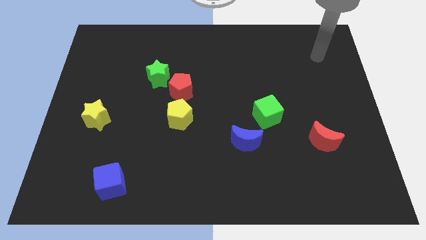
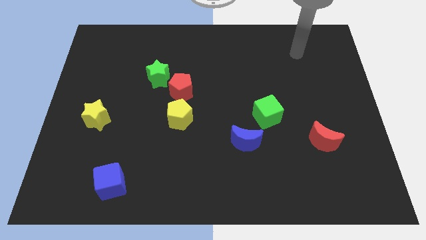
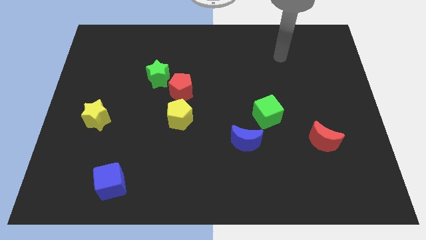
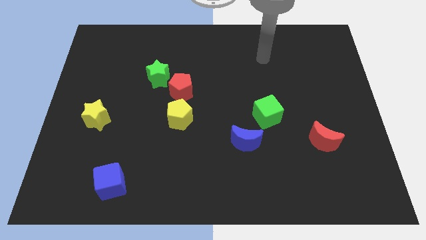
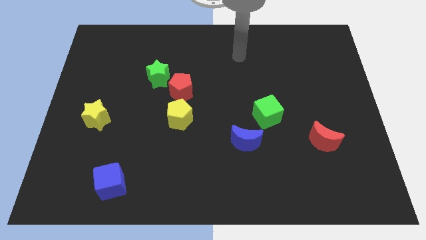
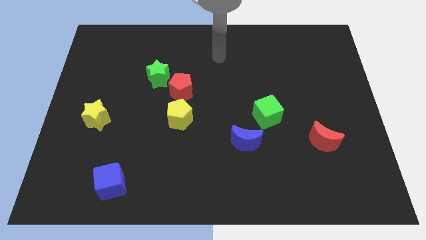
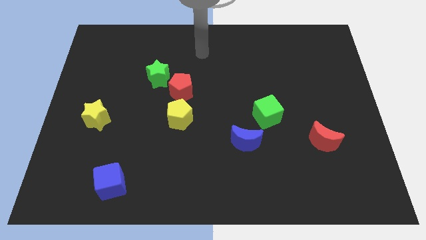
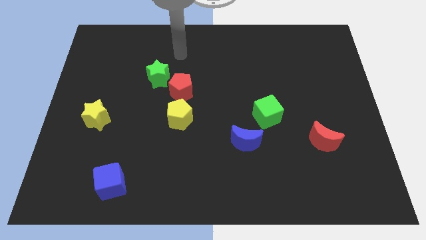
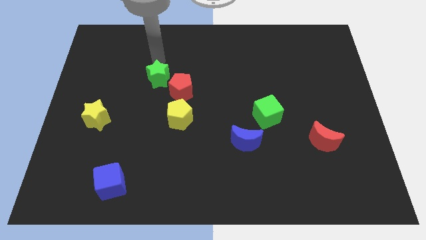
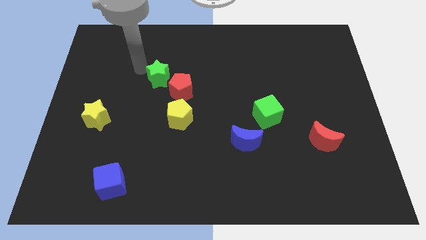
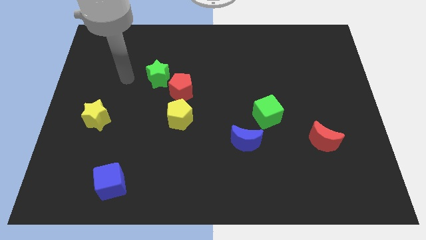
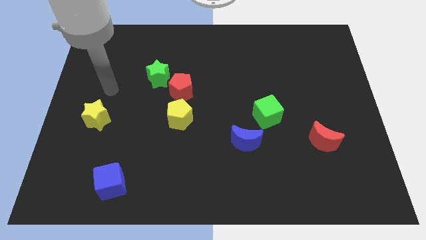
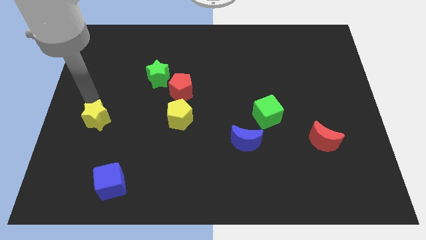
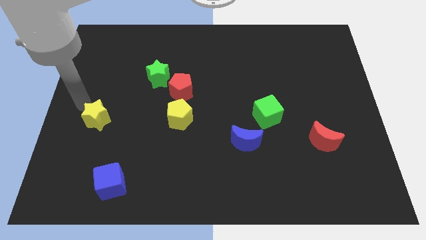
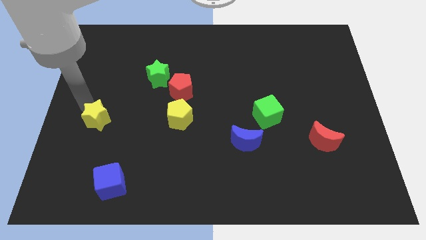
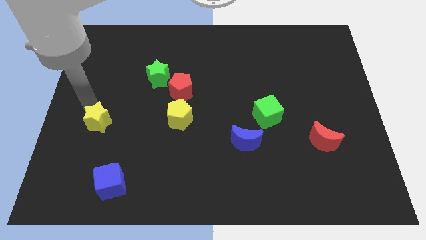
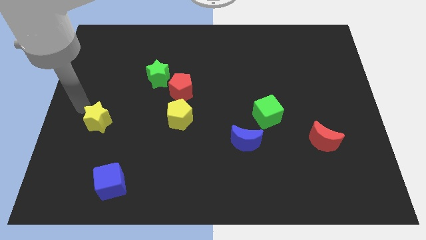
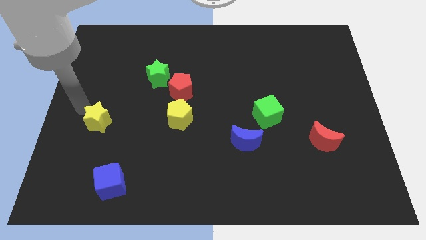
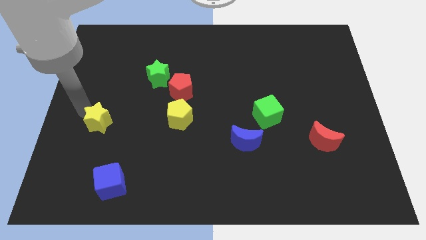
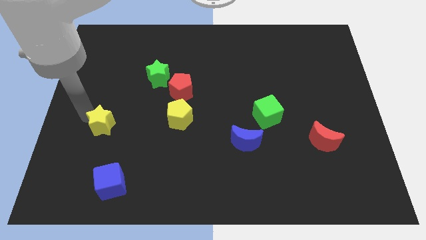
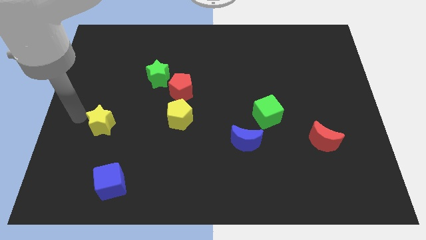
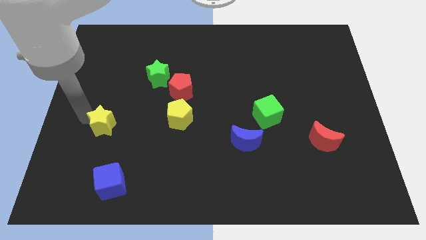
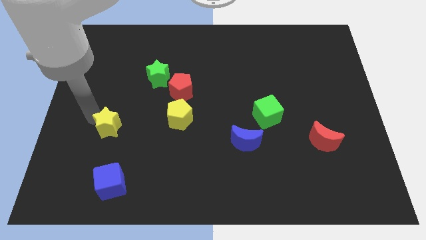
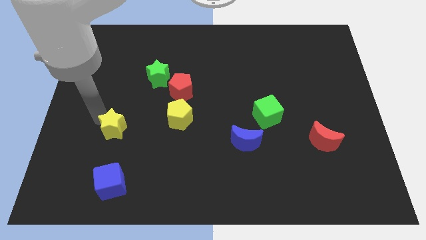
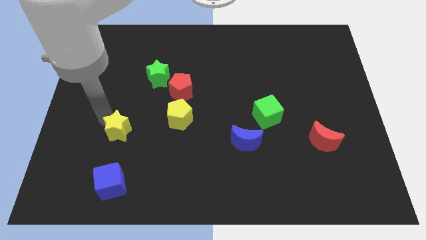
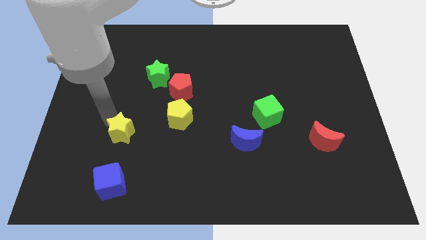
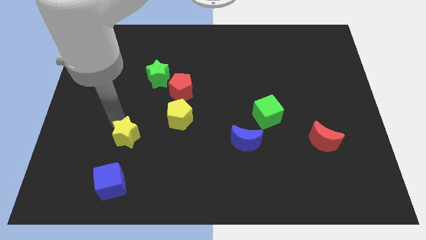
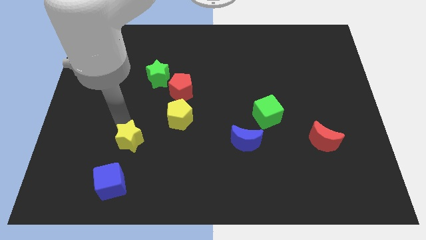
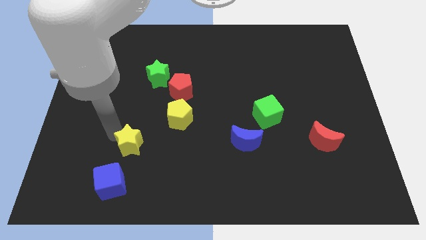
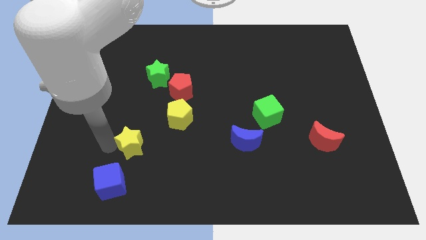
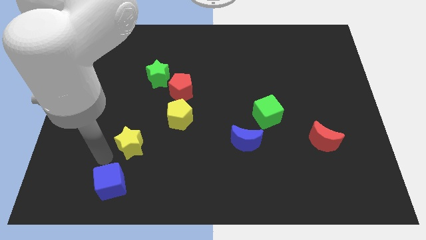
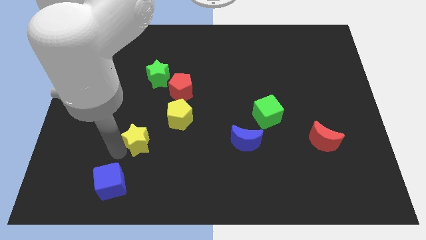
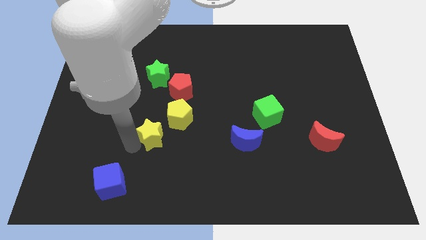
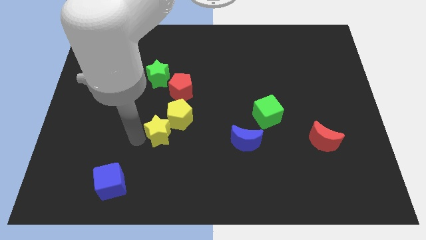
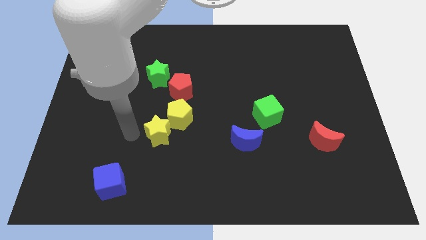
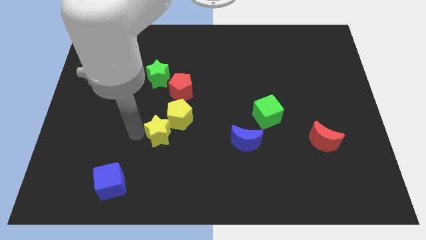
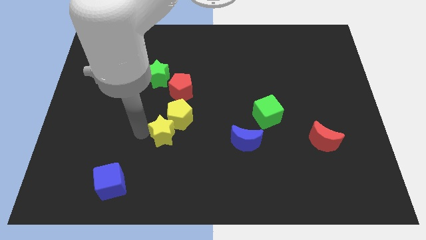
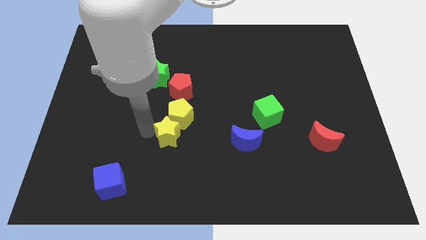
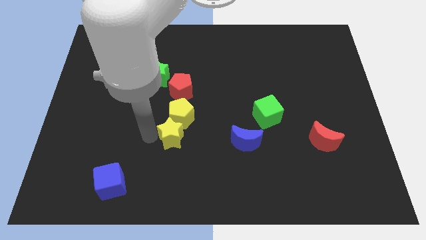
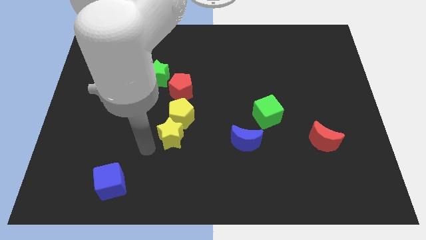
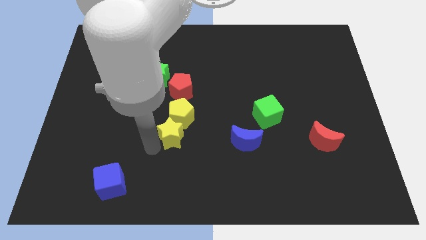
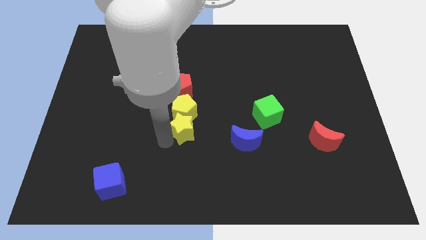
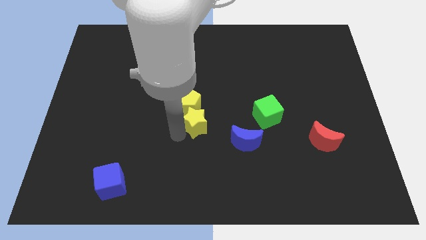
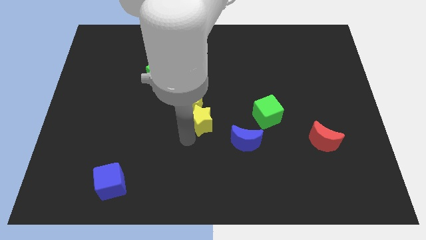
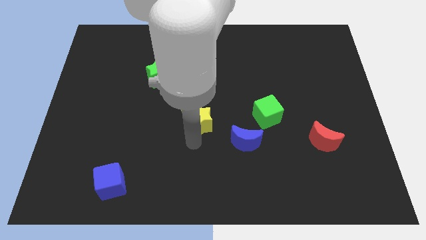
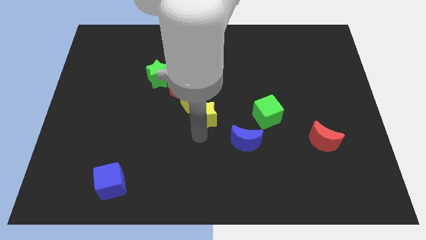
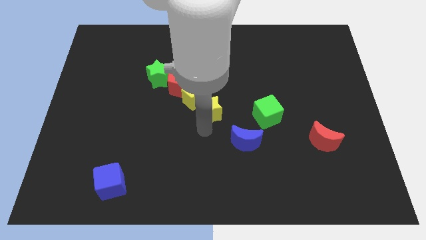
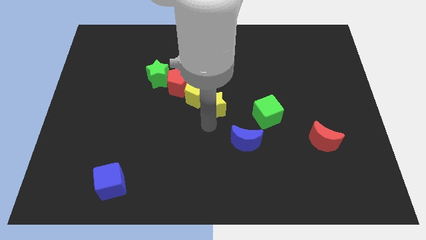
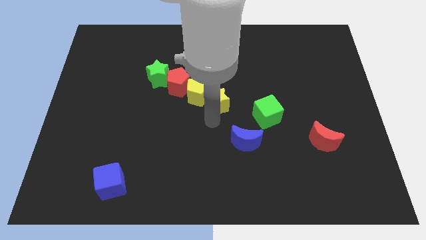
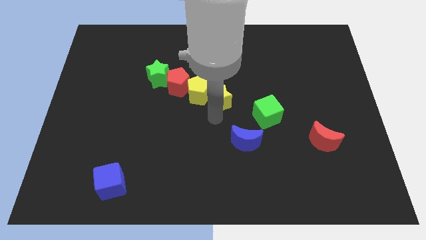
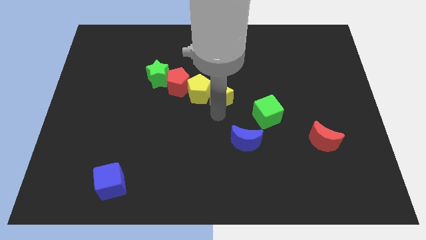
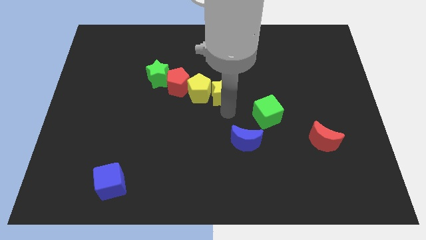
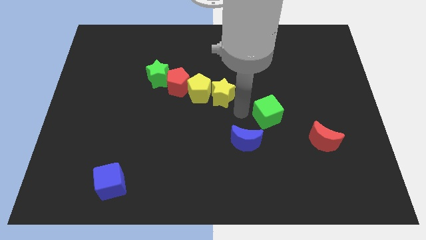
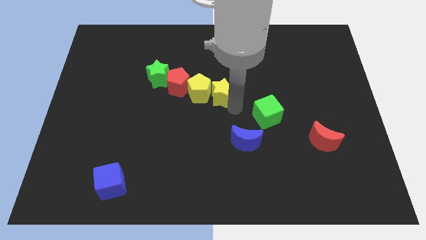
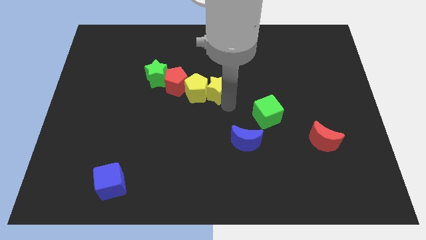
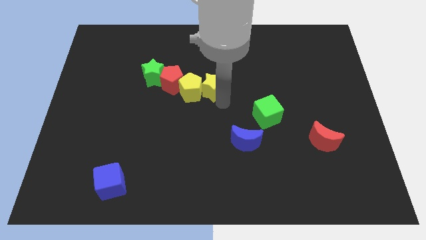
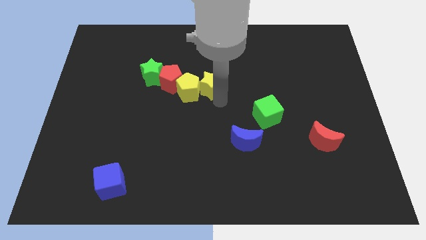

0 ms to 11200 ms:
put the yellow star to the right of the green star

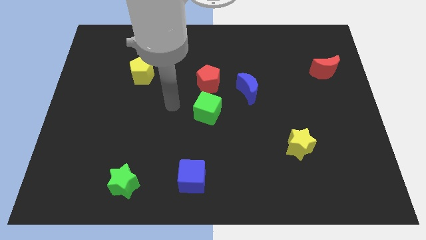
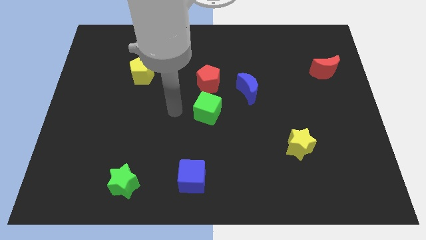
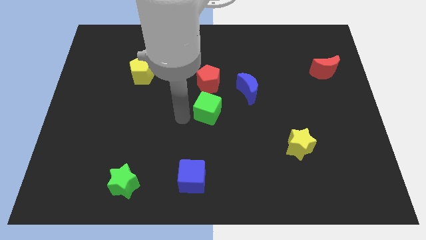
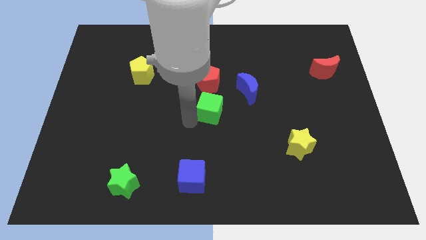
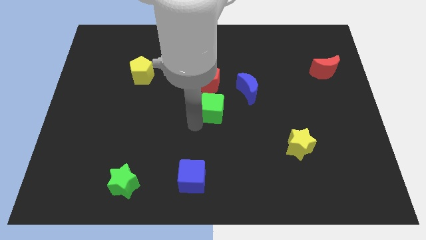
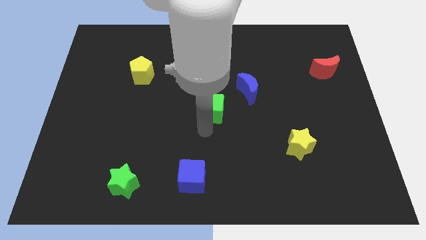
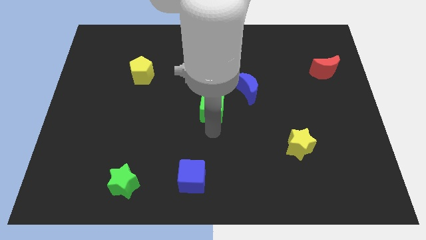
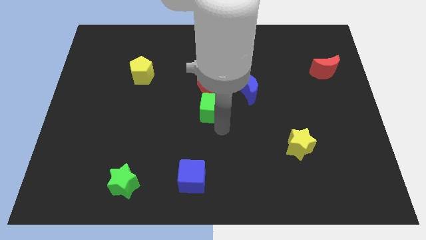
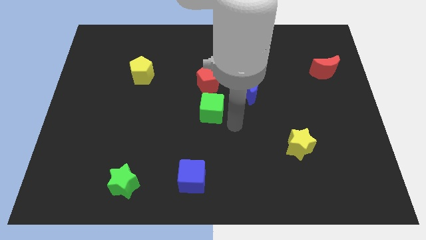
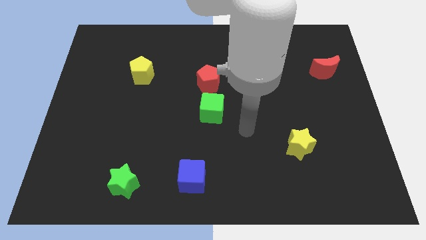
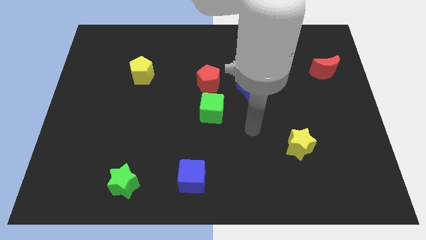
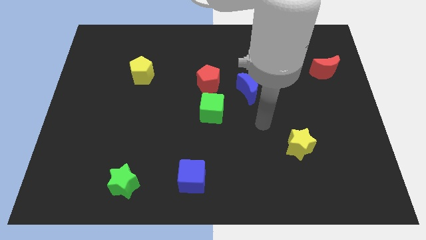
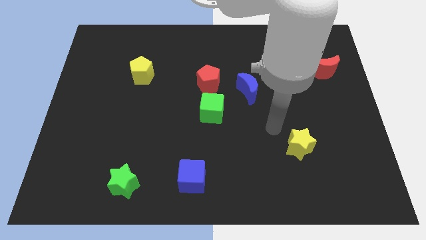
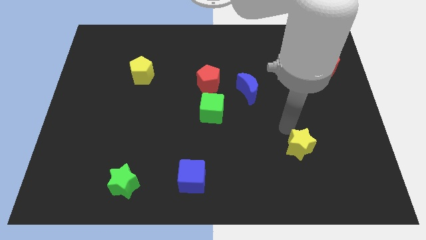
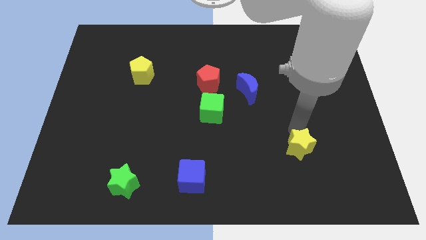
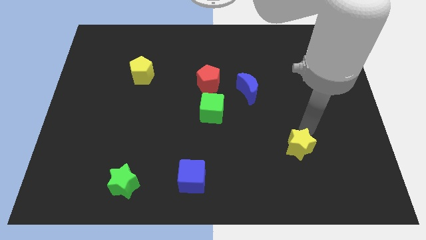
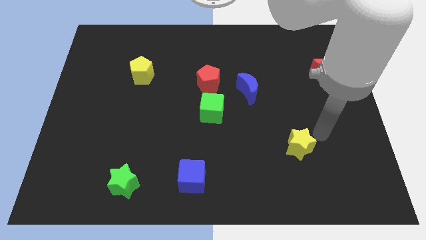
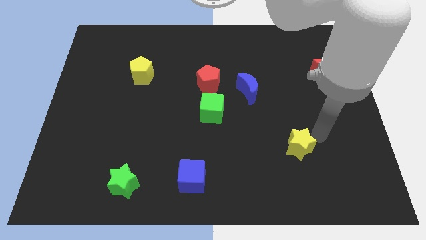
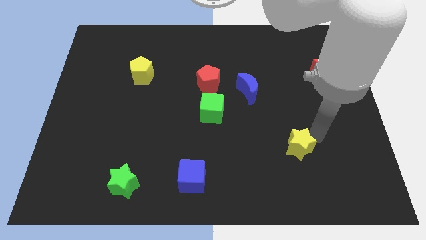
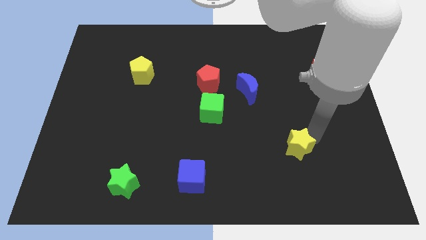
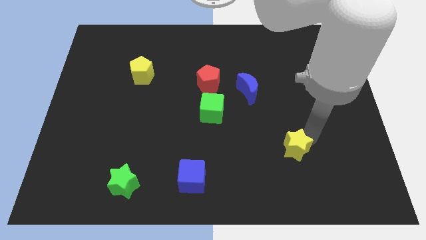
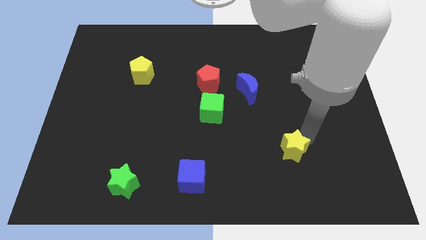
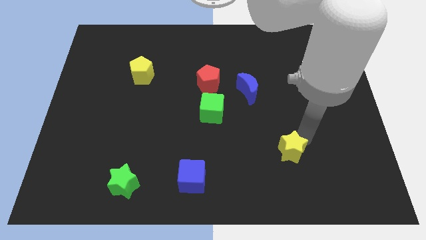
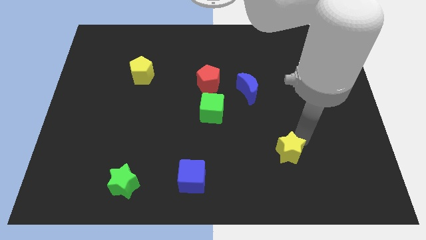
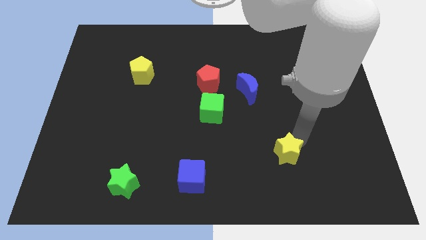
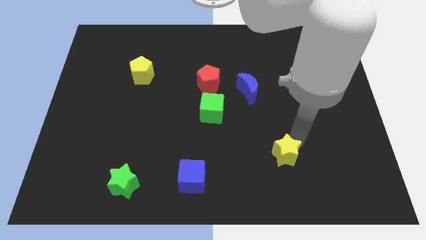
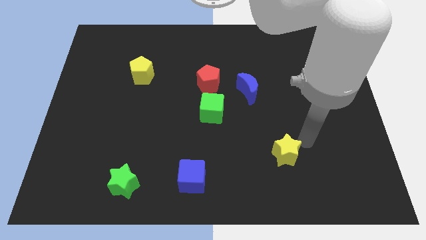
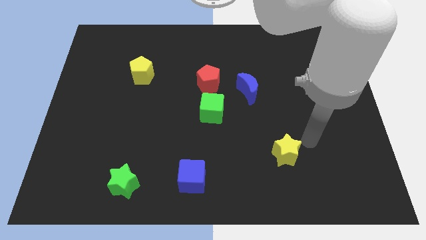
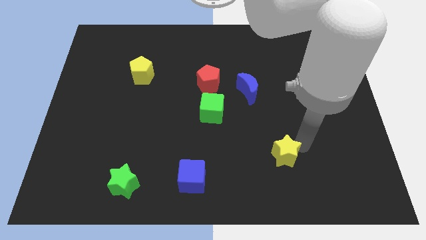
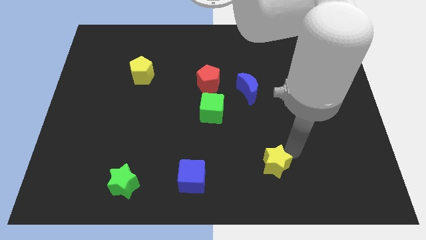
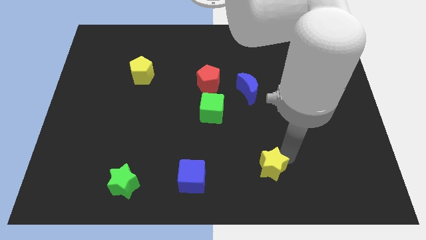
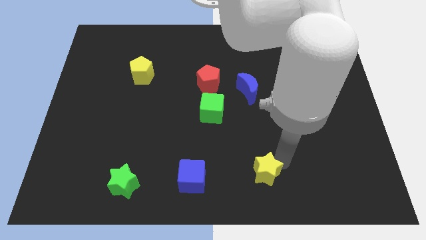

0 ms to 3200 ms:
slide the yellow star to the right of the blue cube
